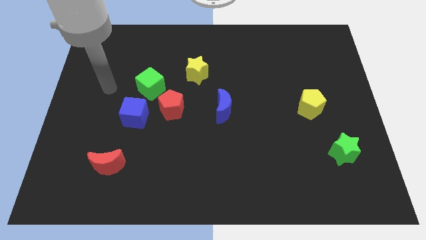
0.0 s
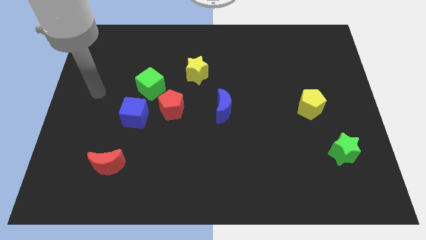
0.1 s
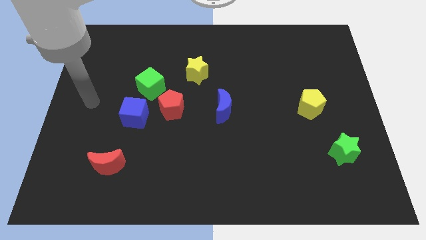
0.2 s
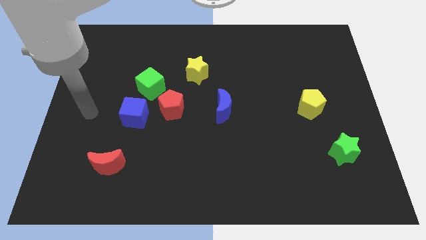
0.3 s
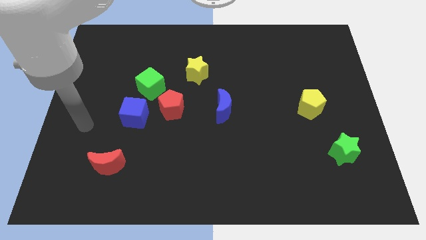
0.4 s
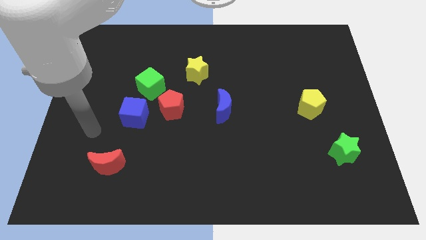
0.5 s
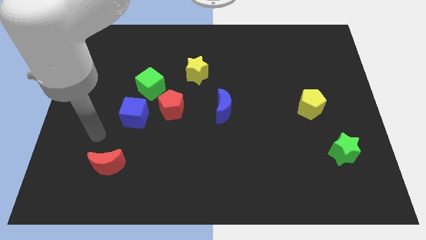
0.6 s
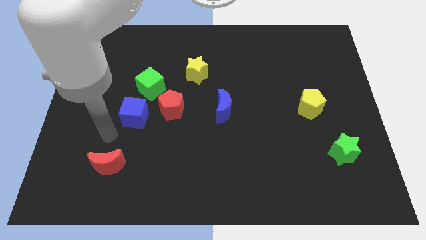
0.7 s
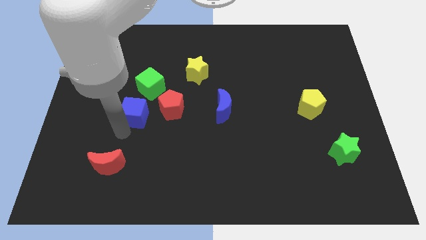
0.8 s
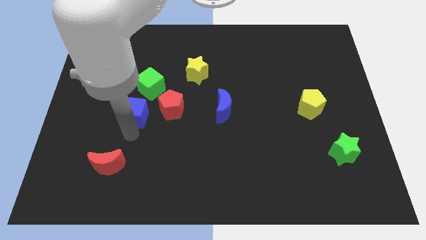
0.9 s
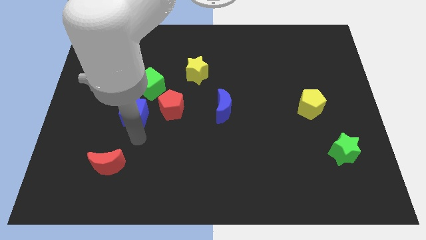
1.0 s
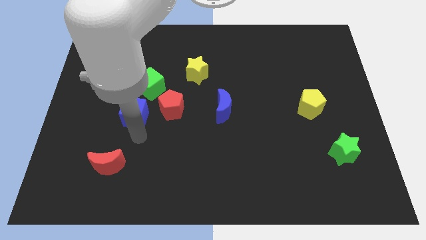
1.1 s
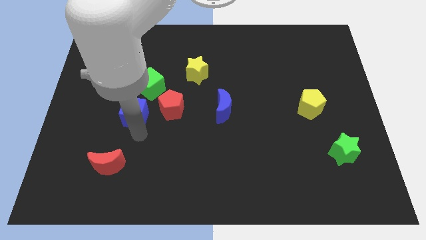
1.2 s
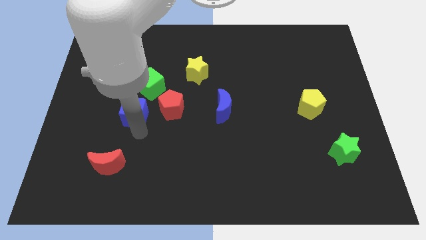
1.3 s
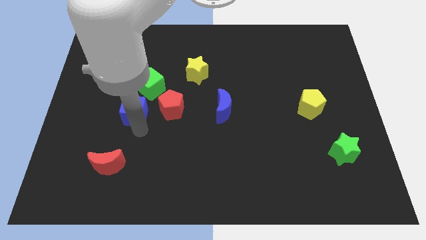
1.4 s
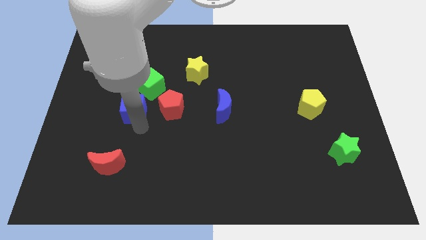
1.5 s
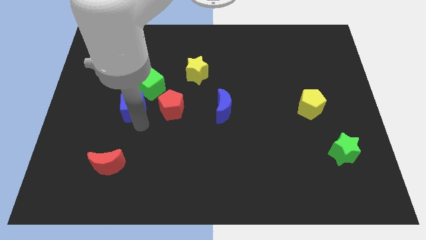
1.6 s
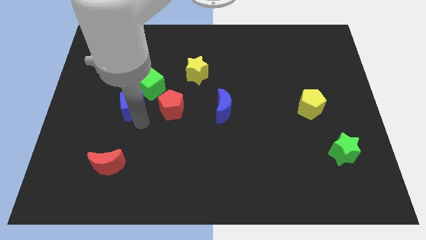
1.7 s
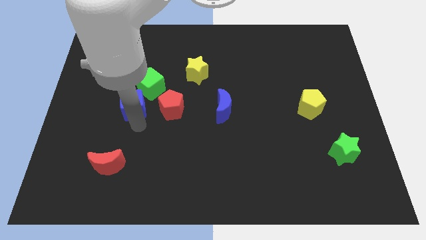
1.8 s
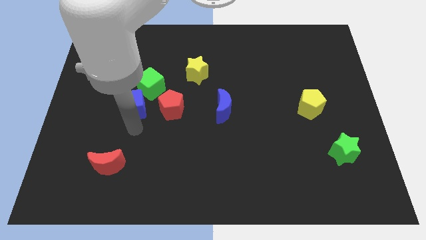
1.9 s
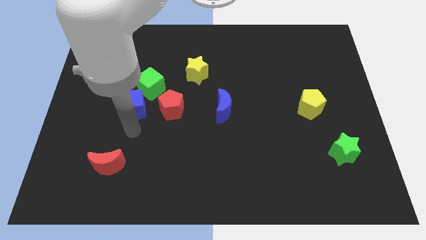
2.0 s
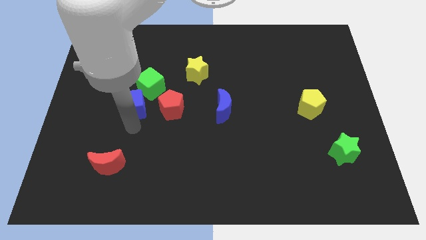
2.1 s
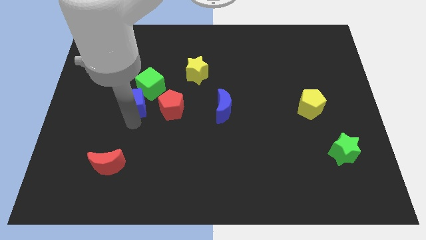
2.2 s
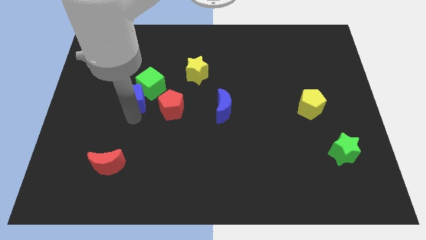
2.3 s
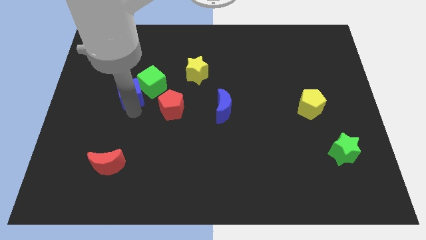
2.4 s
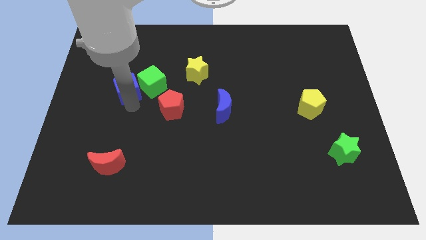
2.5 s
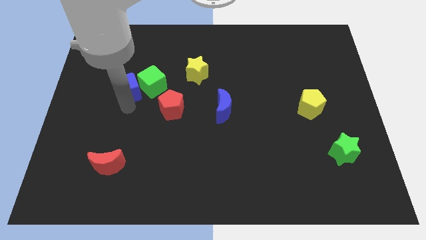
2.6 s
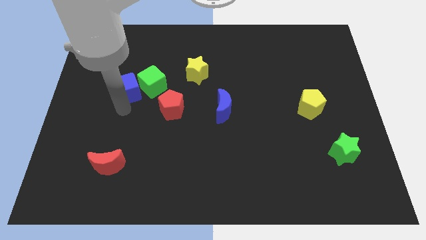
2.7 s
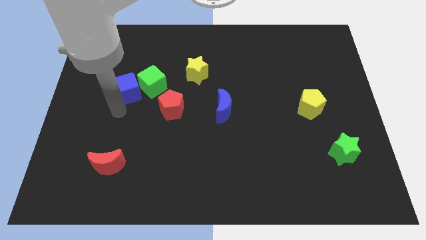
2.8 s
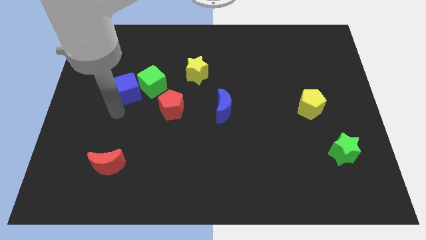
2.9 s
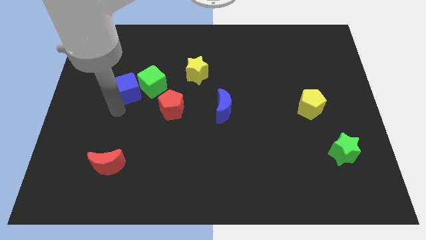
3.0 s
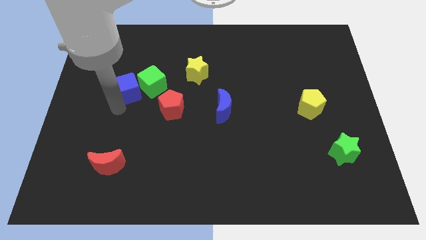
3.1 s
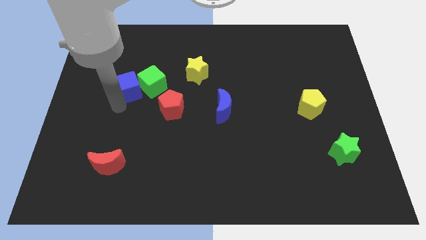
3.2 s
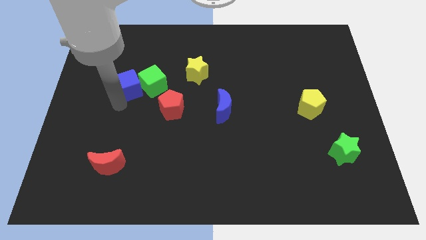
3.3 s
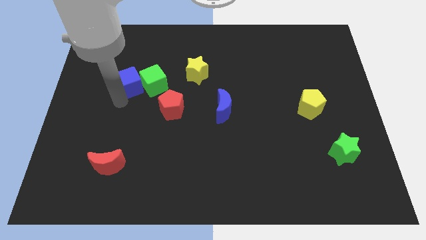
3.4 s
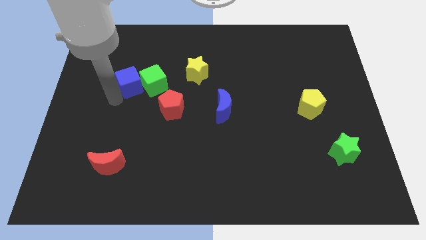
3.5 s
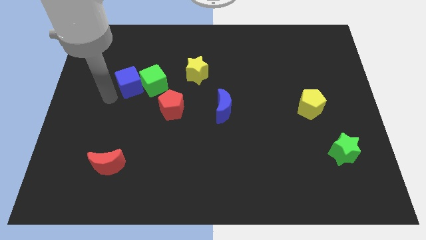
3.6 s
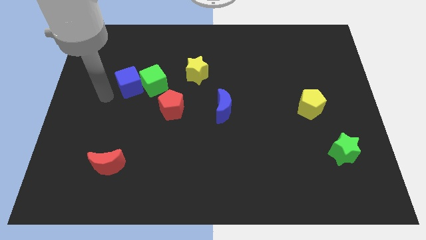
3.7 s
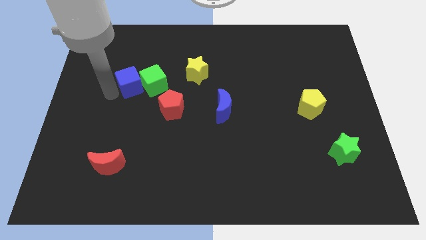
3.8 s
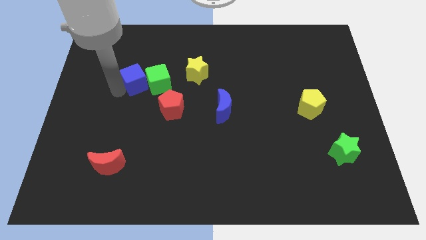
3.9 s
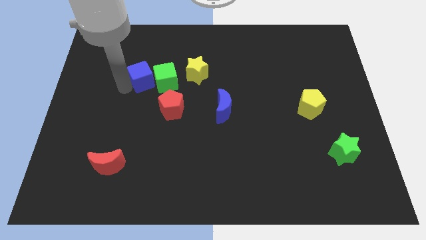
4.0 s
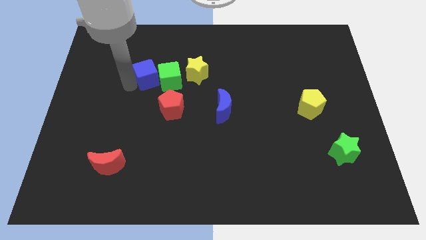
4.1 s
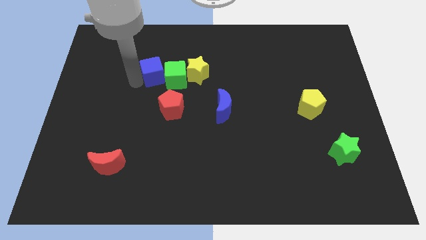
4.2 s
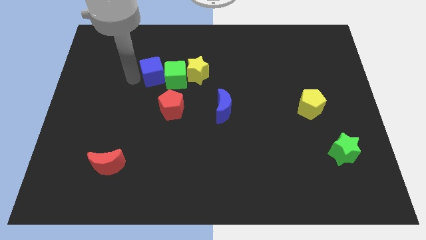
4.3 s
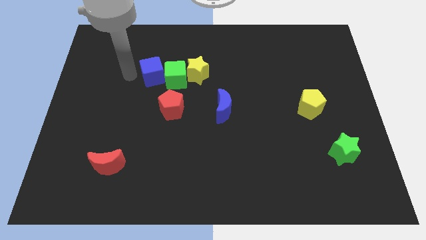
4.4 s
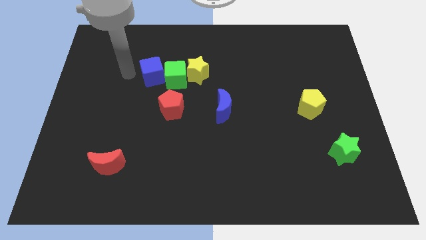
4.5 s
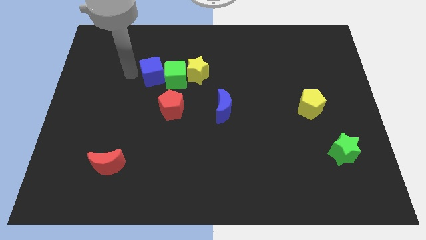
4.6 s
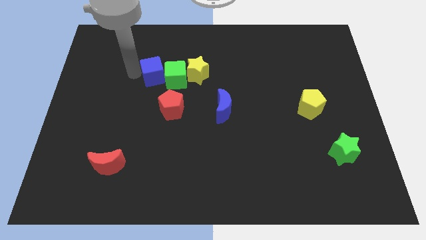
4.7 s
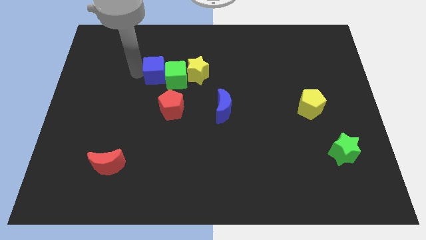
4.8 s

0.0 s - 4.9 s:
slide the blue cube to the top side of the red pentagon

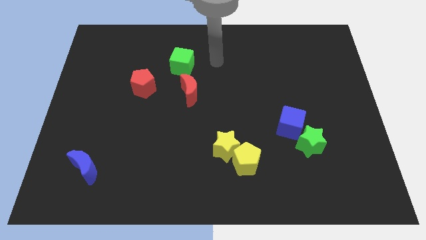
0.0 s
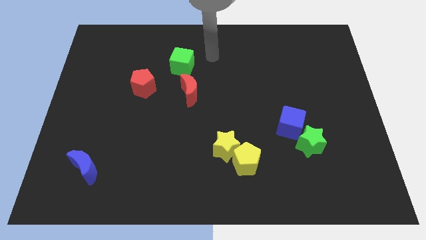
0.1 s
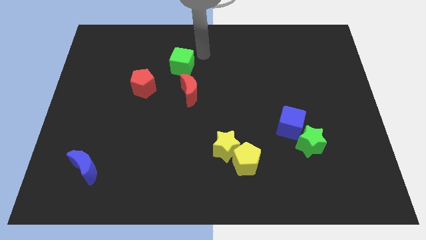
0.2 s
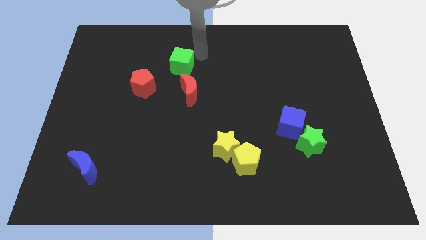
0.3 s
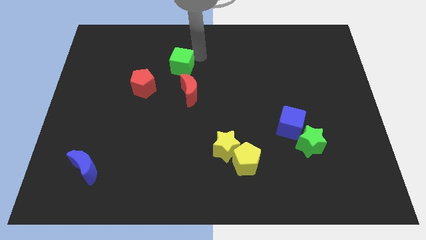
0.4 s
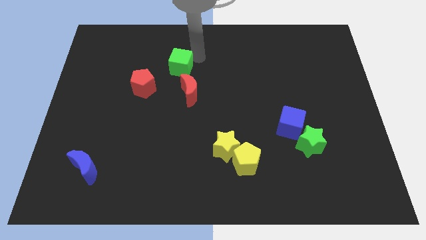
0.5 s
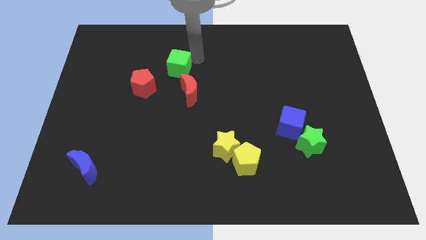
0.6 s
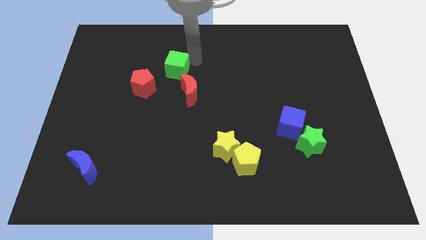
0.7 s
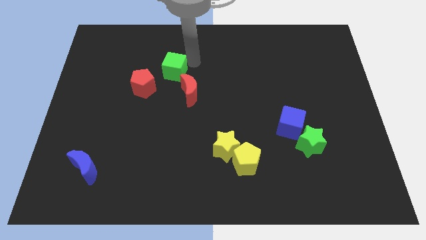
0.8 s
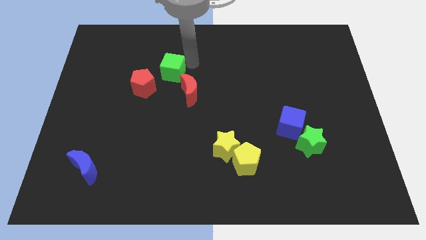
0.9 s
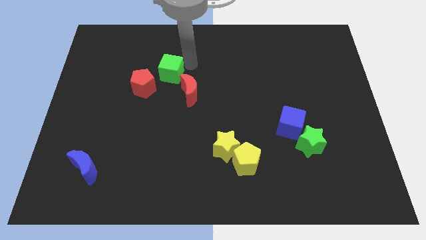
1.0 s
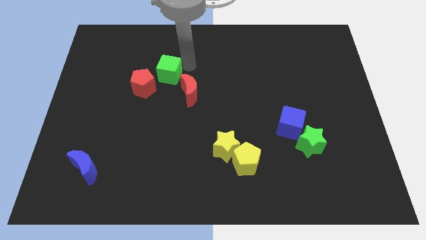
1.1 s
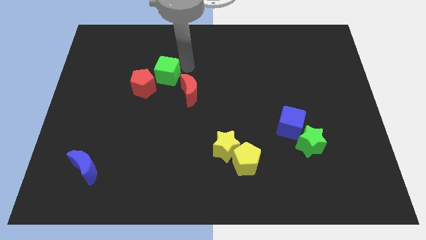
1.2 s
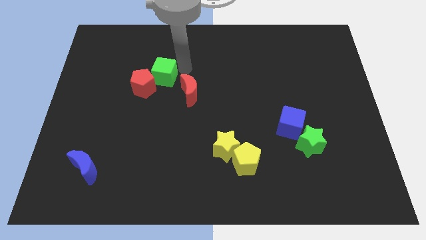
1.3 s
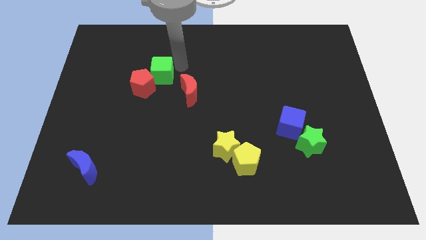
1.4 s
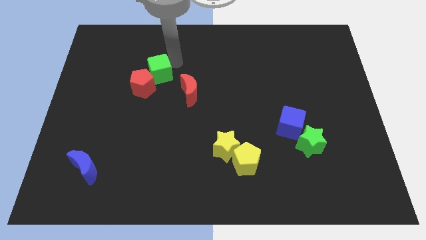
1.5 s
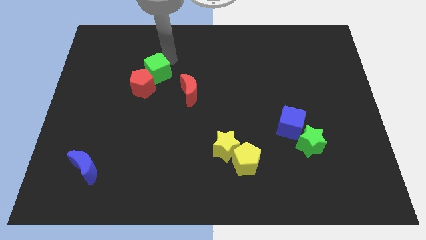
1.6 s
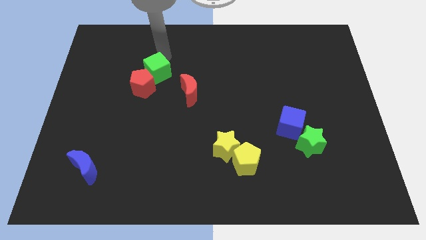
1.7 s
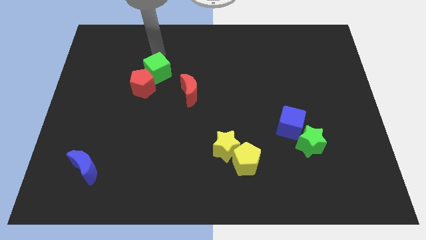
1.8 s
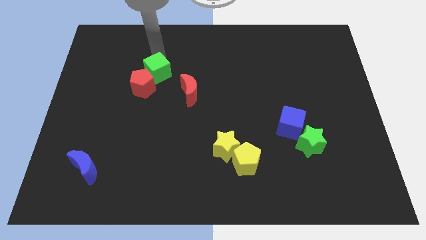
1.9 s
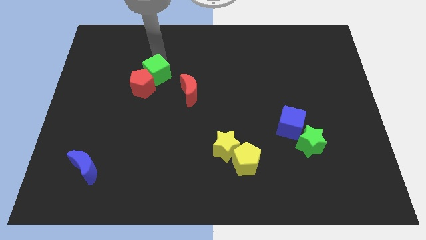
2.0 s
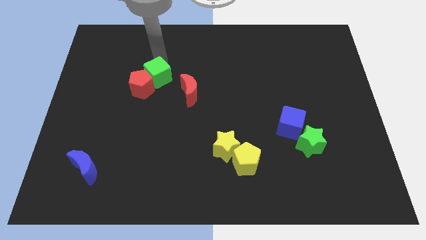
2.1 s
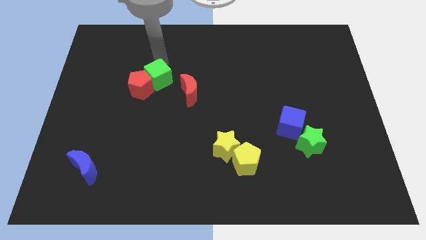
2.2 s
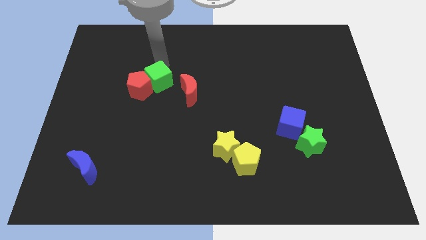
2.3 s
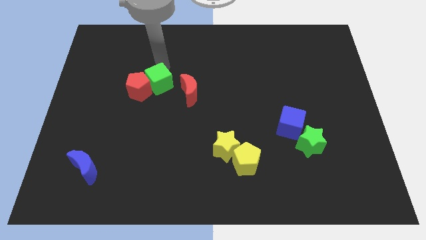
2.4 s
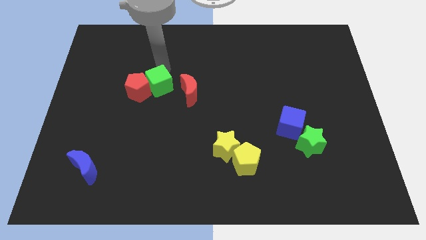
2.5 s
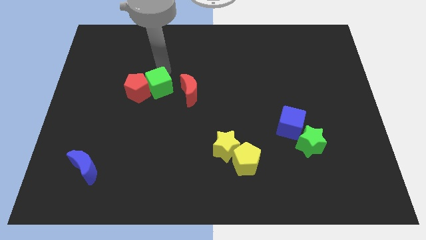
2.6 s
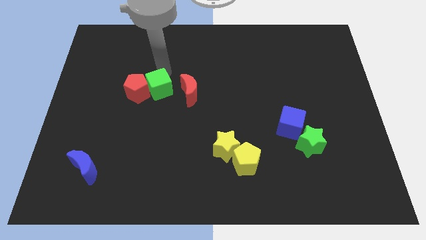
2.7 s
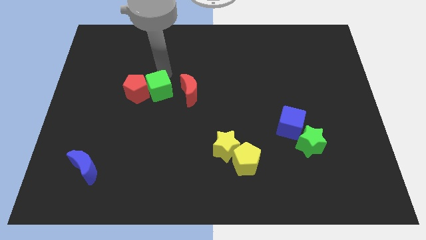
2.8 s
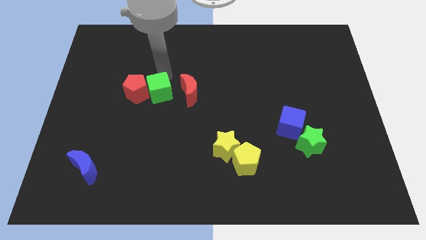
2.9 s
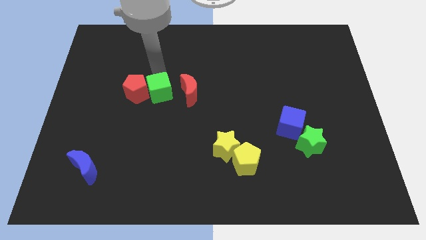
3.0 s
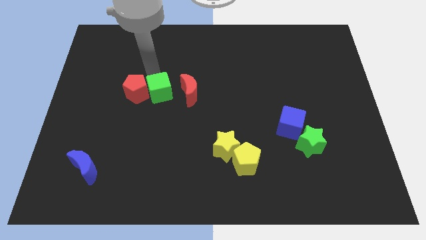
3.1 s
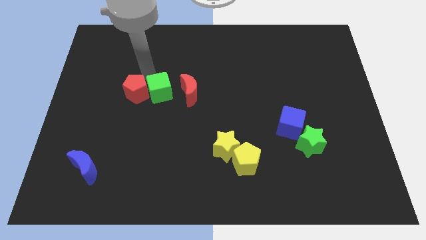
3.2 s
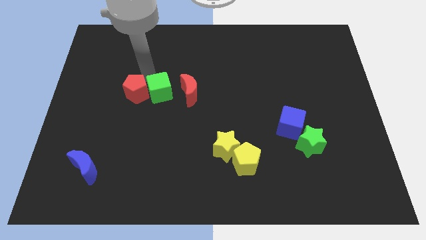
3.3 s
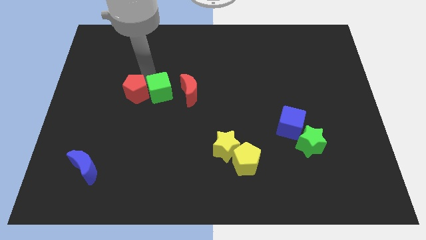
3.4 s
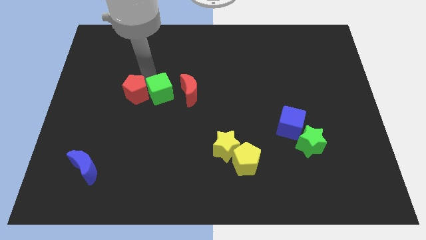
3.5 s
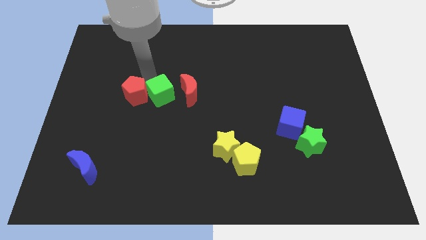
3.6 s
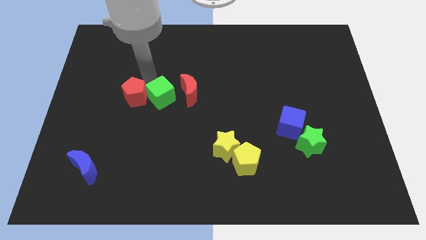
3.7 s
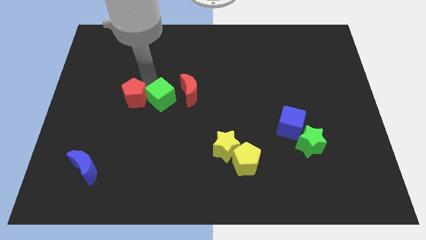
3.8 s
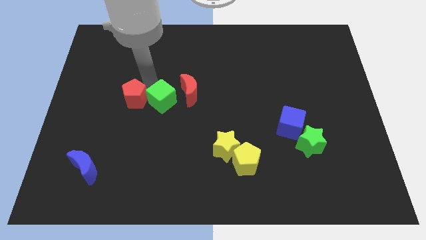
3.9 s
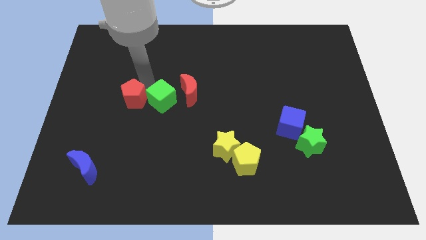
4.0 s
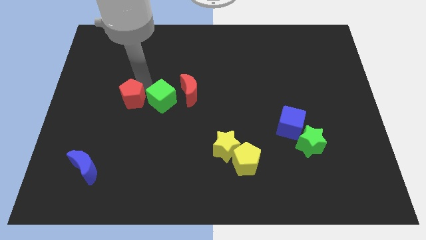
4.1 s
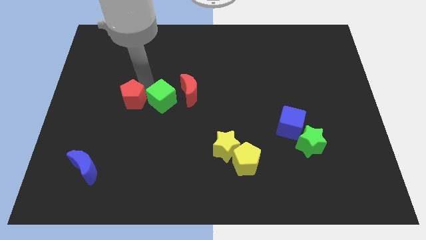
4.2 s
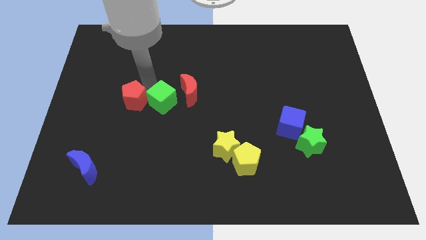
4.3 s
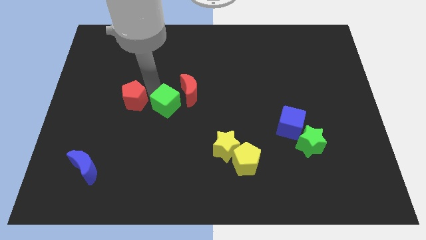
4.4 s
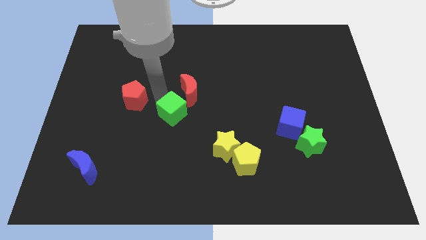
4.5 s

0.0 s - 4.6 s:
move the green cube to the bottom side of the red moon
